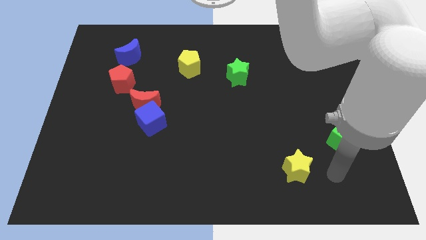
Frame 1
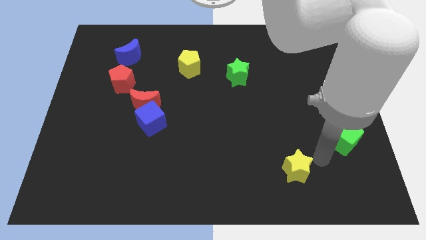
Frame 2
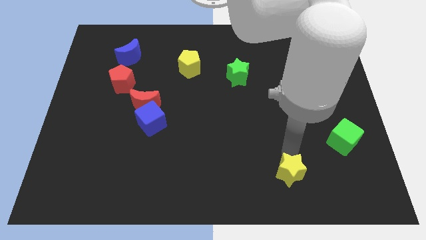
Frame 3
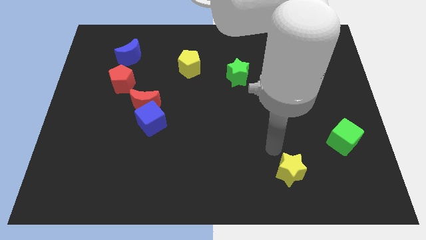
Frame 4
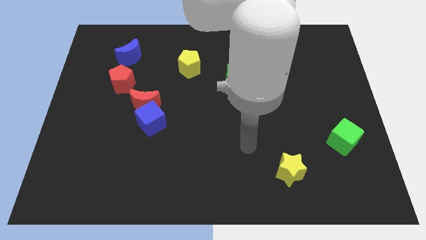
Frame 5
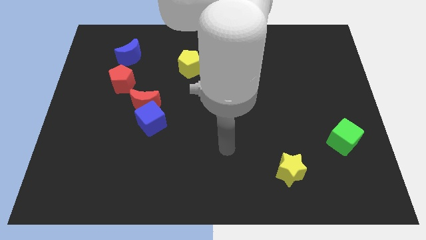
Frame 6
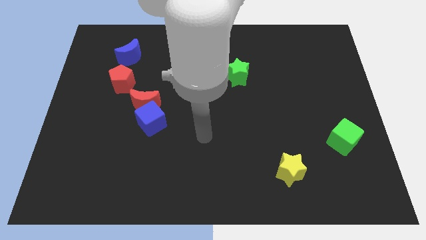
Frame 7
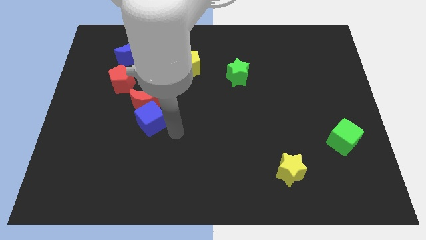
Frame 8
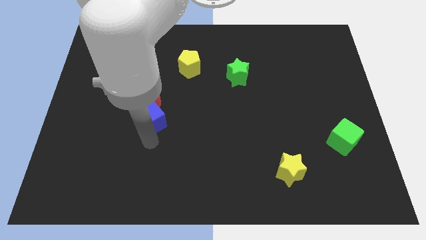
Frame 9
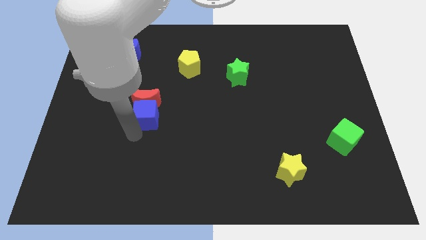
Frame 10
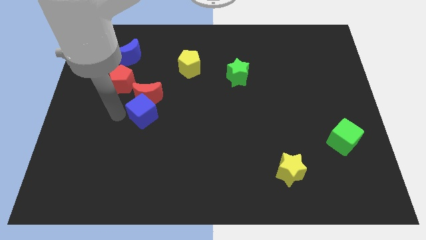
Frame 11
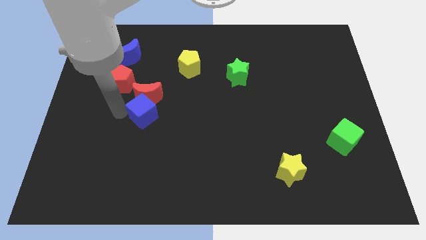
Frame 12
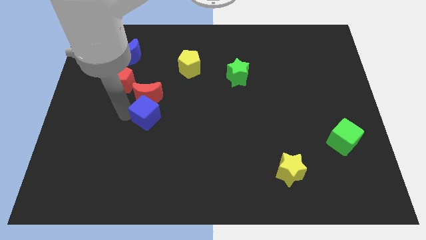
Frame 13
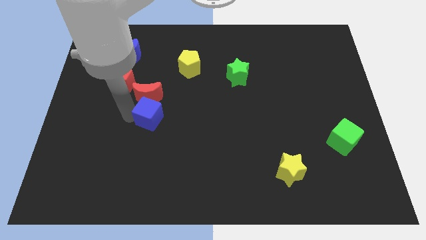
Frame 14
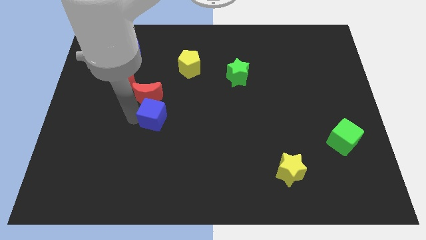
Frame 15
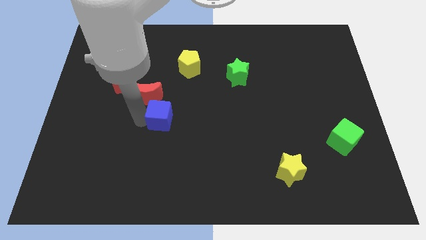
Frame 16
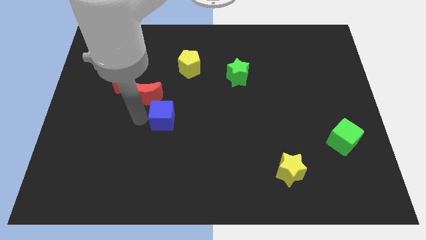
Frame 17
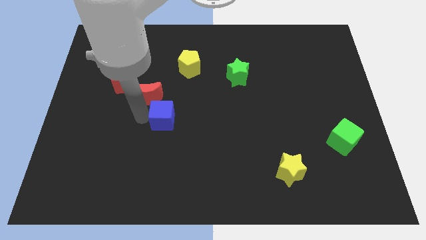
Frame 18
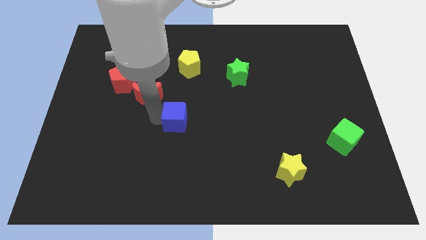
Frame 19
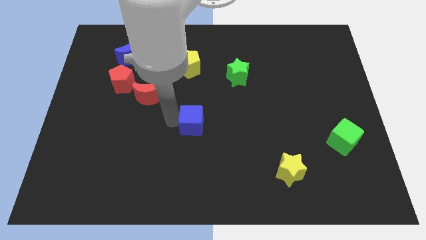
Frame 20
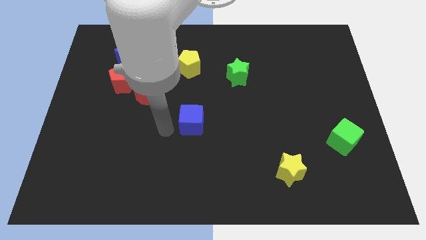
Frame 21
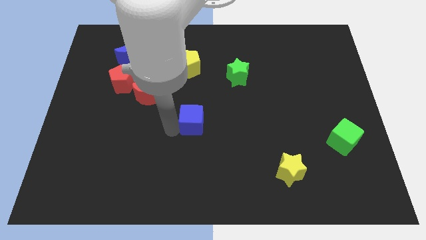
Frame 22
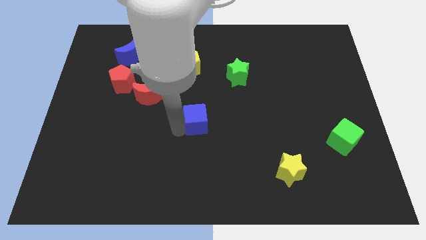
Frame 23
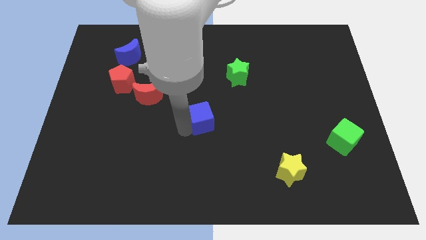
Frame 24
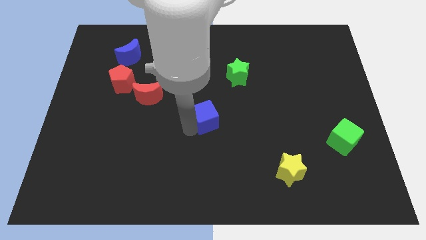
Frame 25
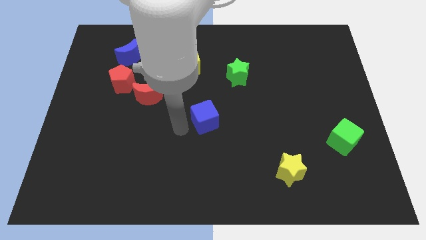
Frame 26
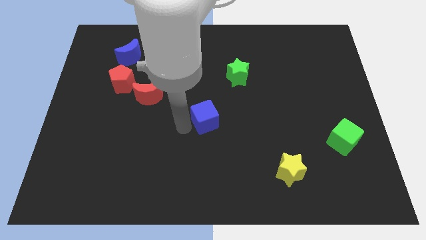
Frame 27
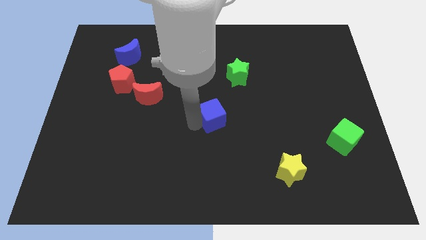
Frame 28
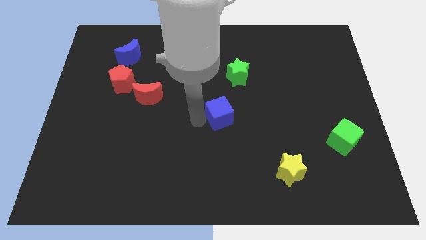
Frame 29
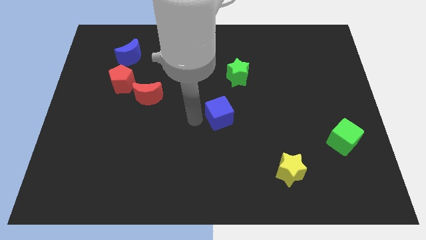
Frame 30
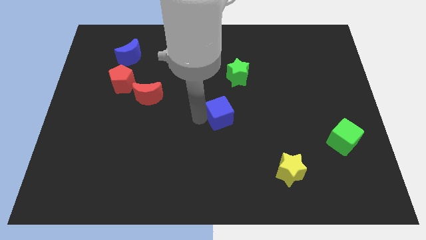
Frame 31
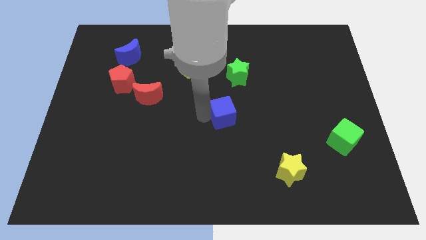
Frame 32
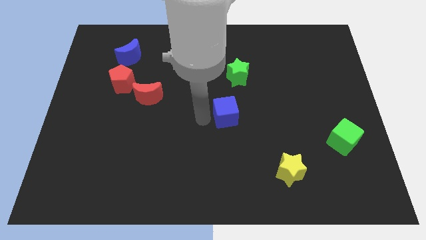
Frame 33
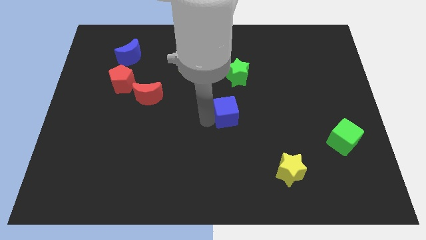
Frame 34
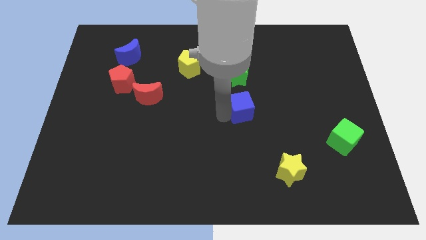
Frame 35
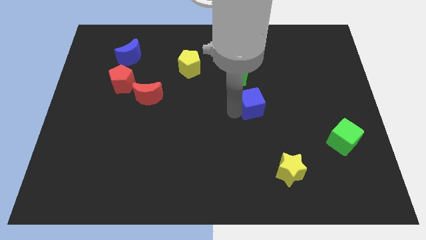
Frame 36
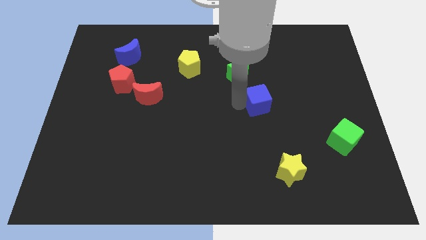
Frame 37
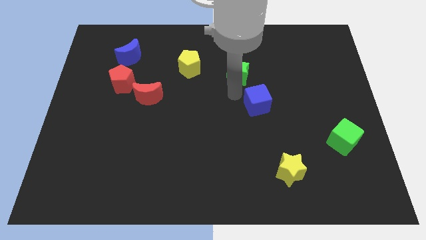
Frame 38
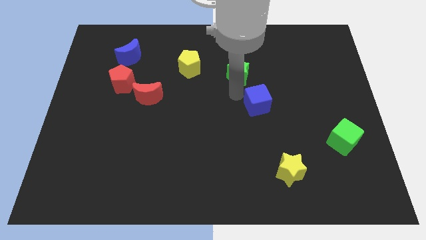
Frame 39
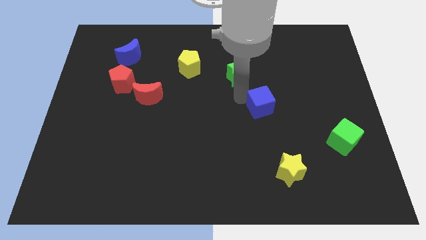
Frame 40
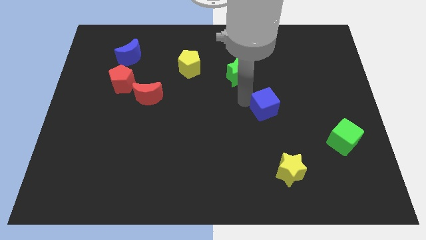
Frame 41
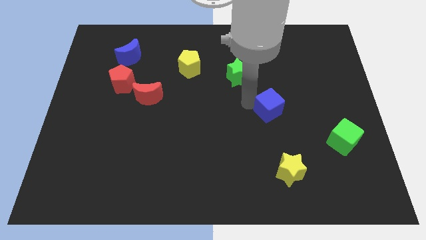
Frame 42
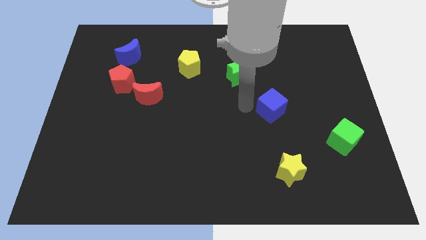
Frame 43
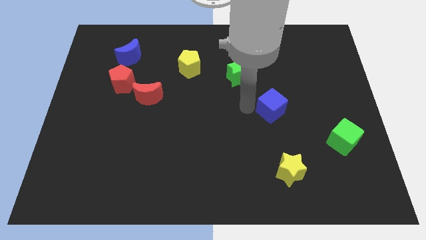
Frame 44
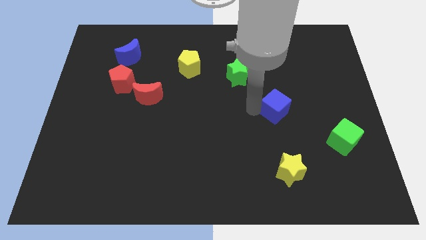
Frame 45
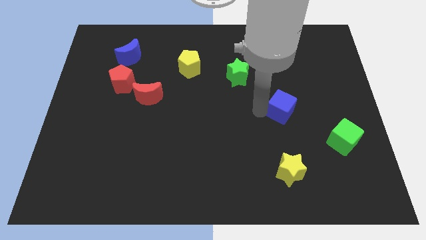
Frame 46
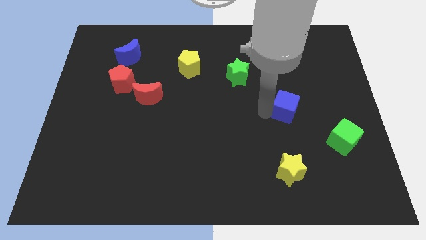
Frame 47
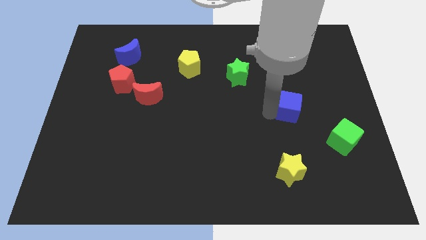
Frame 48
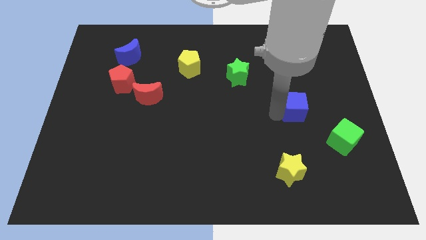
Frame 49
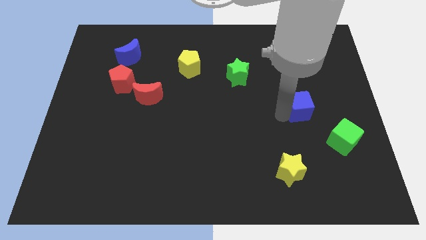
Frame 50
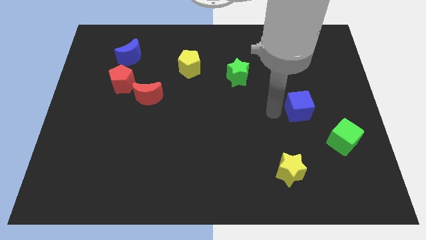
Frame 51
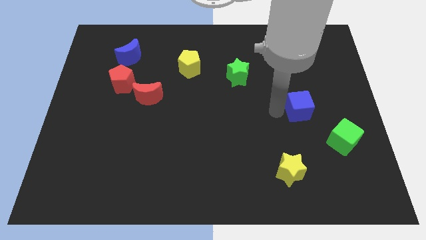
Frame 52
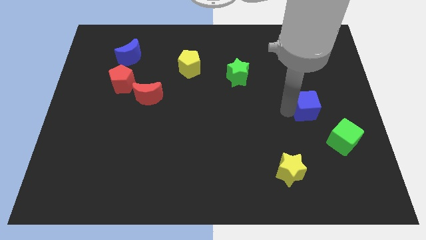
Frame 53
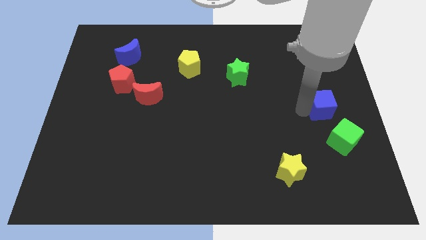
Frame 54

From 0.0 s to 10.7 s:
move the blue cube above the green cube

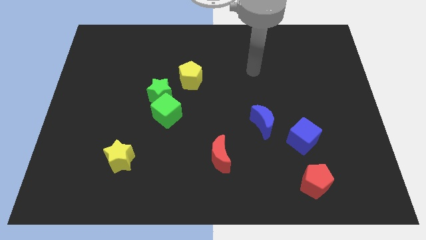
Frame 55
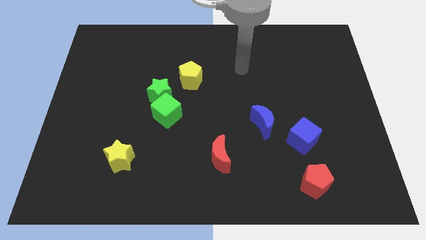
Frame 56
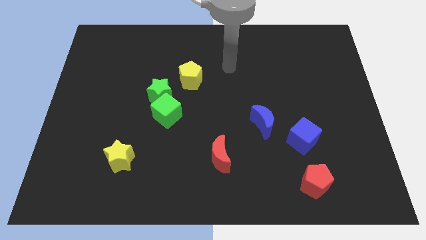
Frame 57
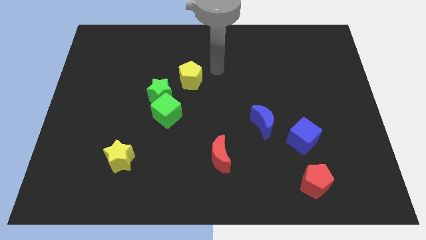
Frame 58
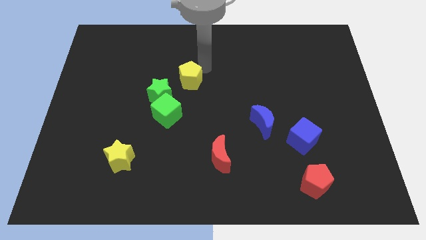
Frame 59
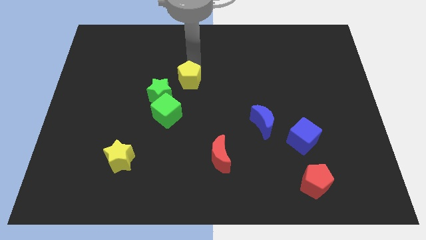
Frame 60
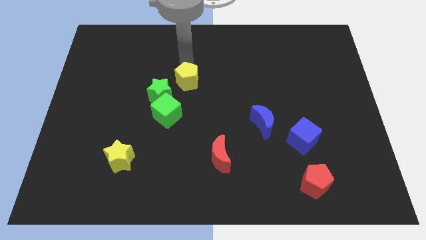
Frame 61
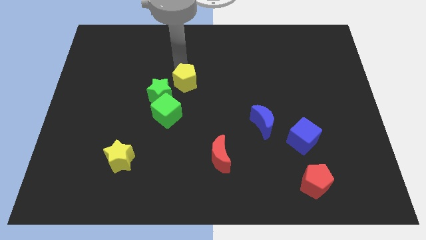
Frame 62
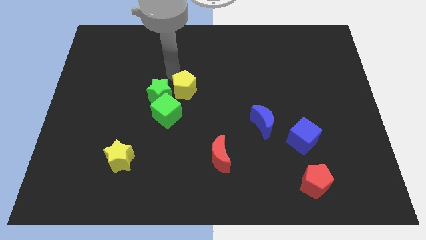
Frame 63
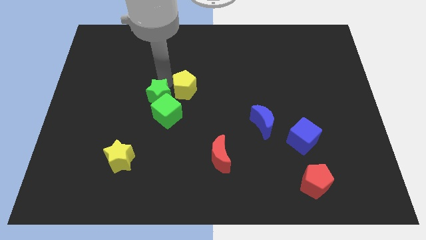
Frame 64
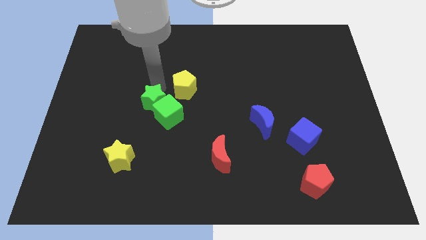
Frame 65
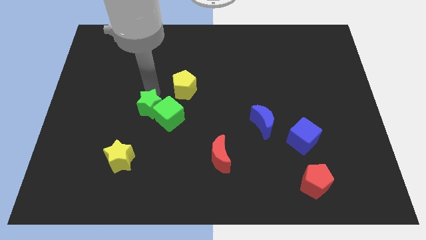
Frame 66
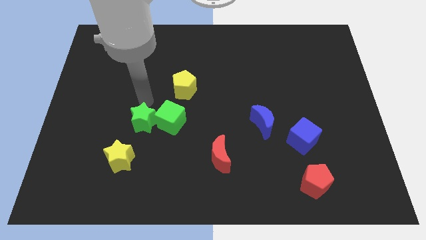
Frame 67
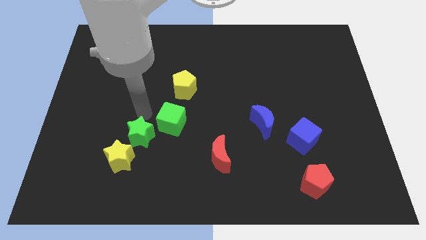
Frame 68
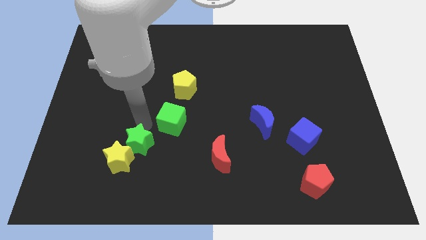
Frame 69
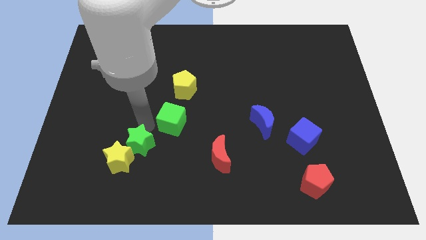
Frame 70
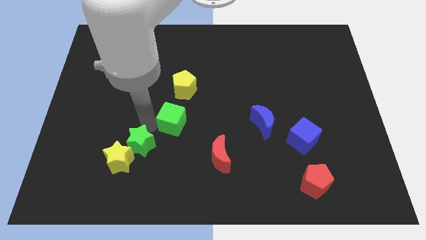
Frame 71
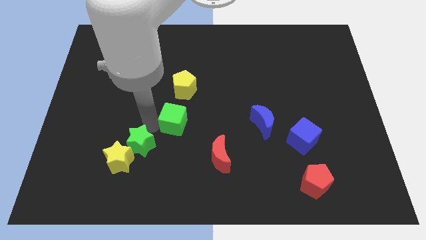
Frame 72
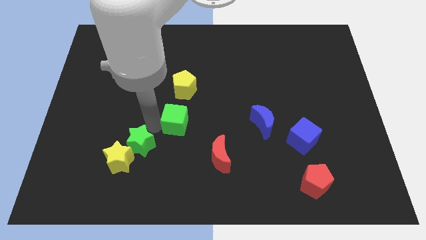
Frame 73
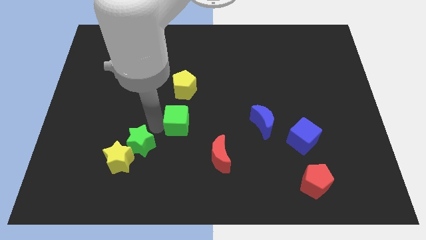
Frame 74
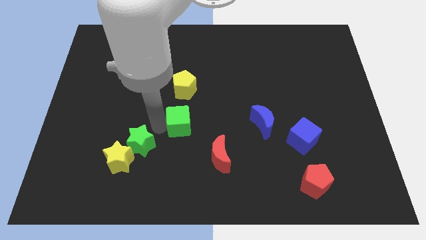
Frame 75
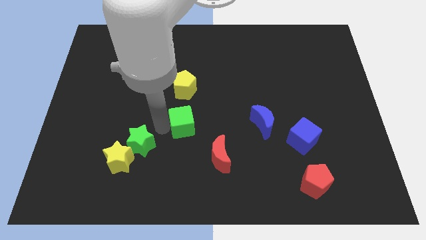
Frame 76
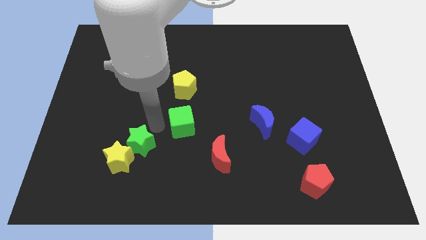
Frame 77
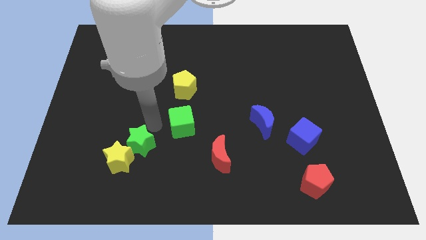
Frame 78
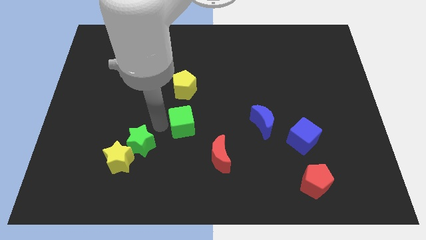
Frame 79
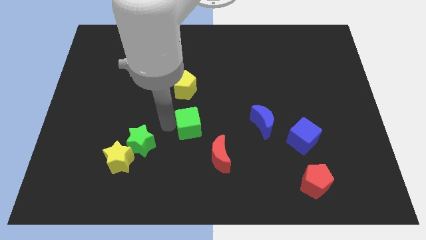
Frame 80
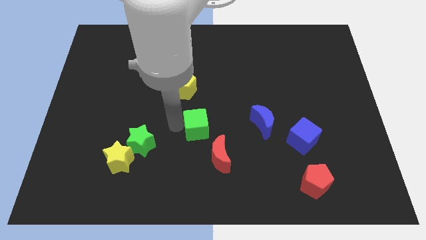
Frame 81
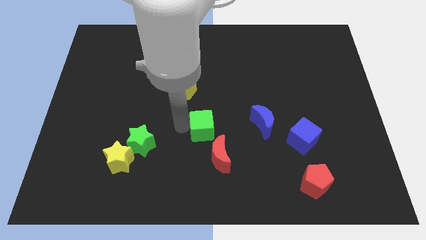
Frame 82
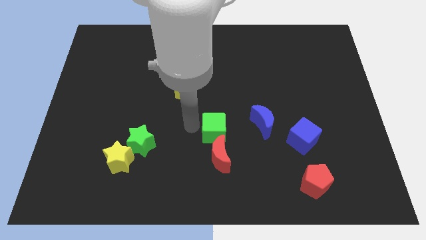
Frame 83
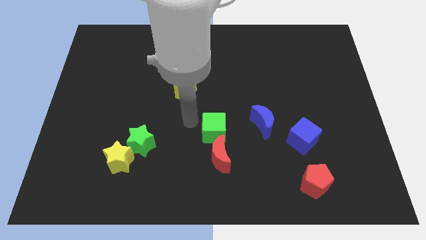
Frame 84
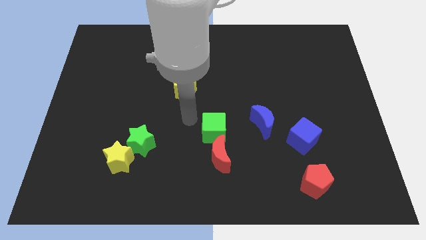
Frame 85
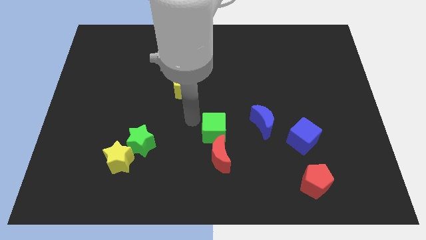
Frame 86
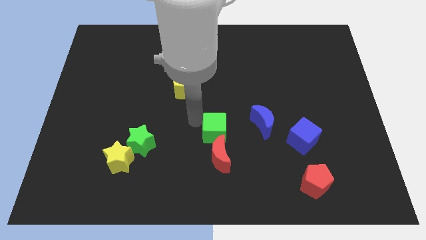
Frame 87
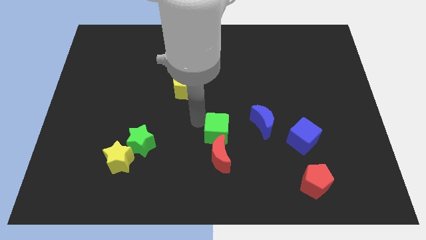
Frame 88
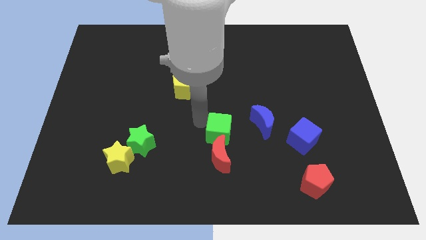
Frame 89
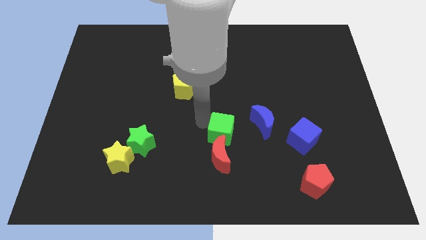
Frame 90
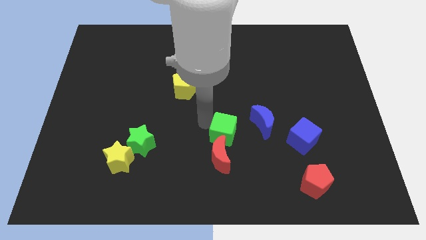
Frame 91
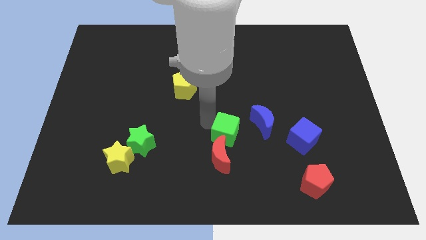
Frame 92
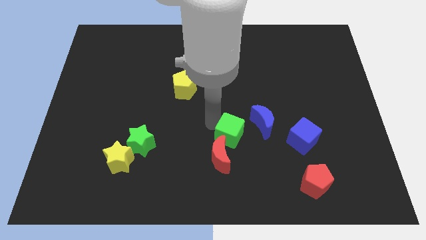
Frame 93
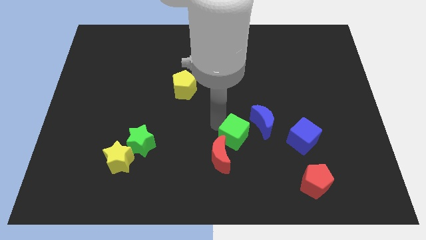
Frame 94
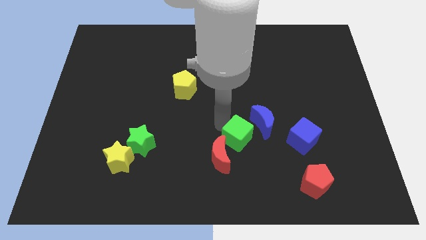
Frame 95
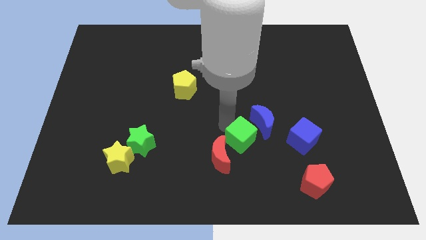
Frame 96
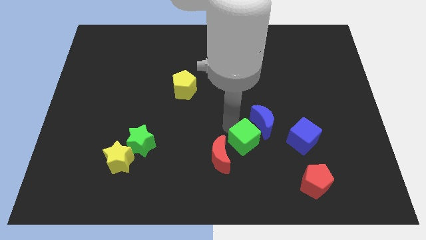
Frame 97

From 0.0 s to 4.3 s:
slide the green cube below the blue moon
